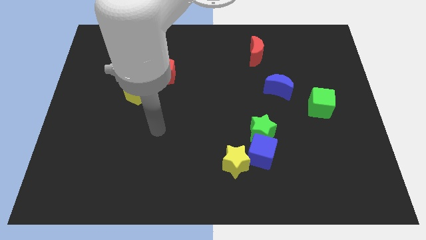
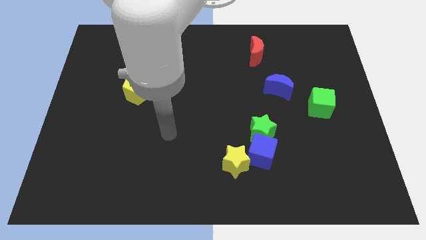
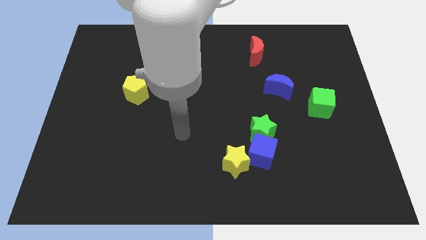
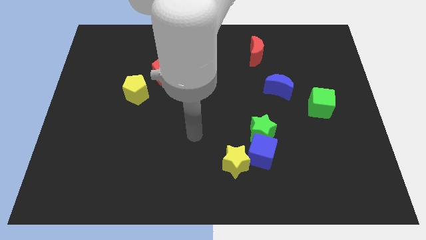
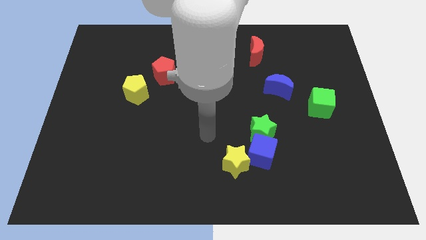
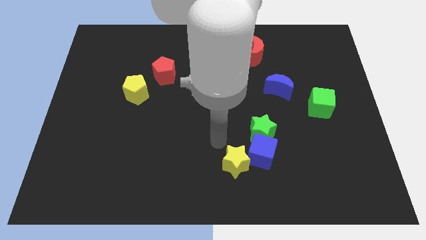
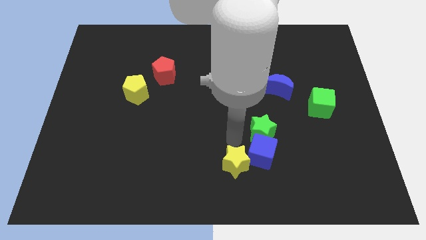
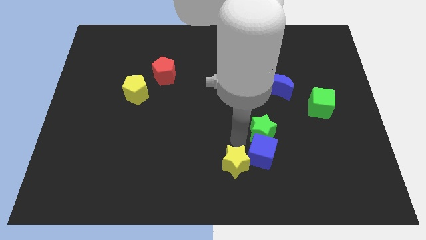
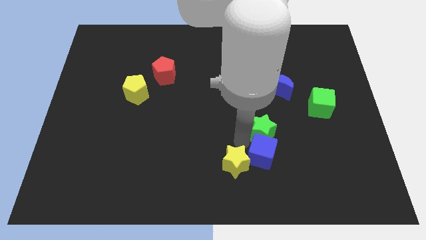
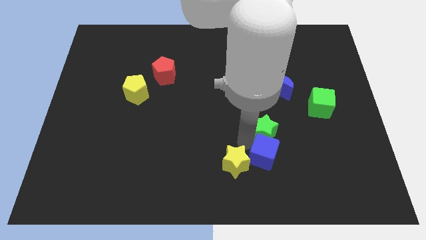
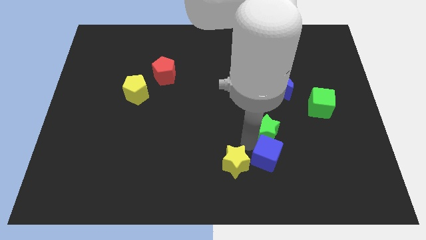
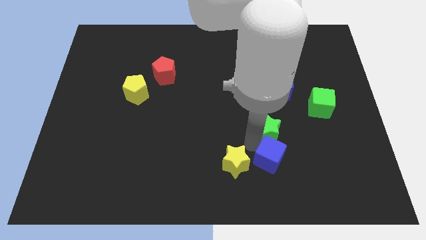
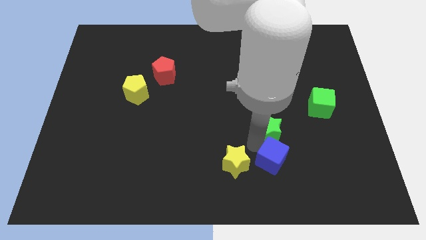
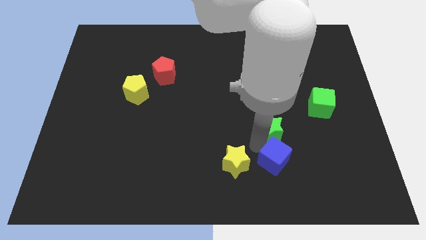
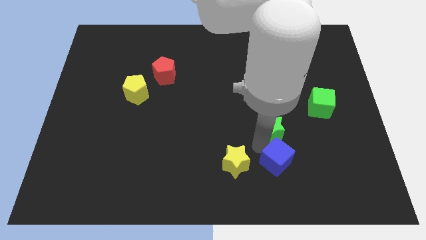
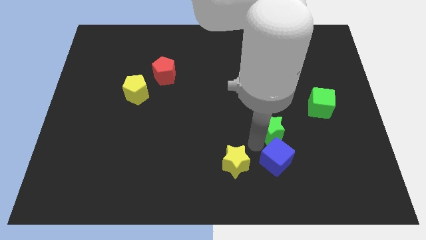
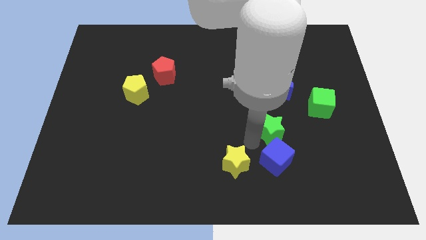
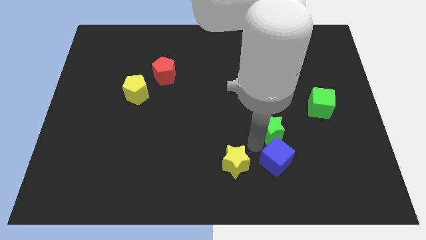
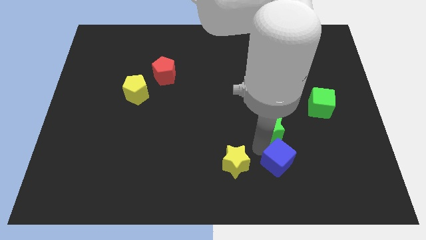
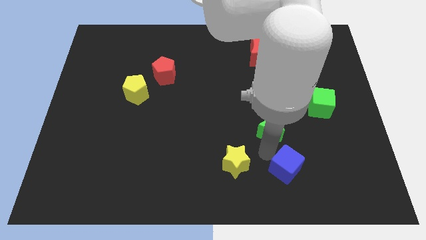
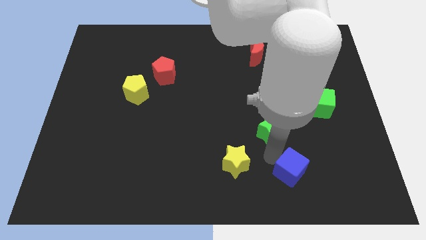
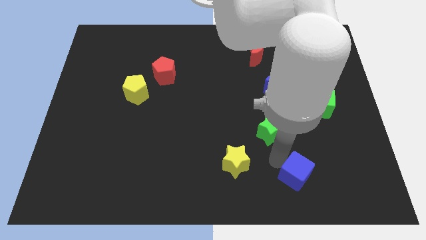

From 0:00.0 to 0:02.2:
pull the blue cube apart from the green star and yellow star

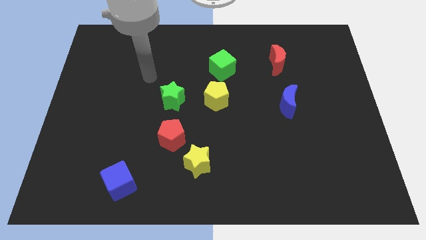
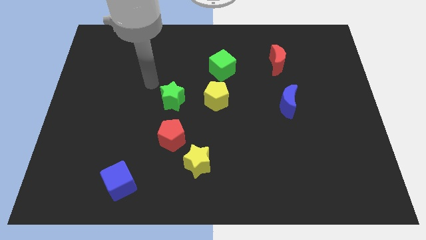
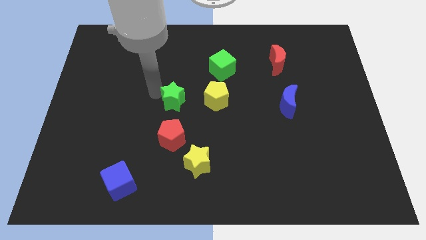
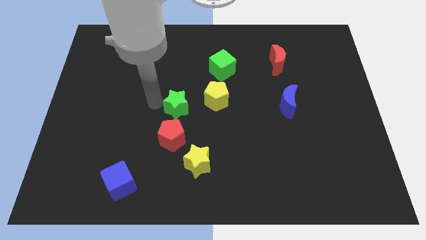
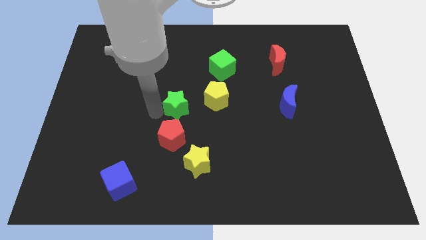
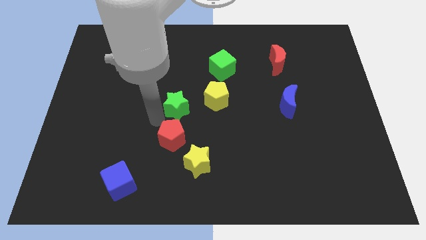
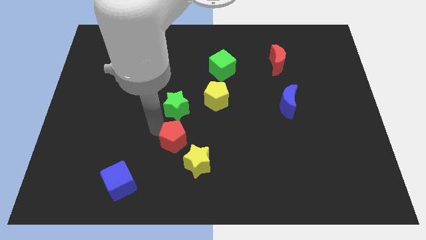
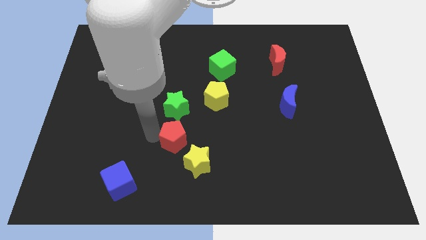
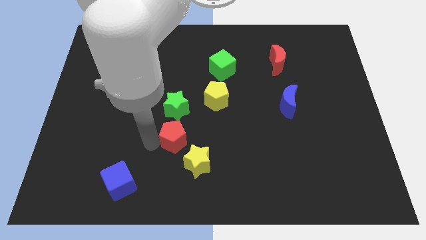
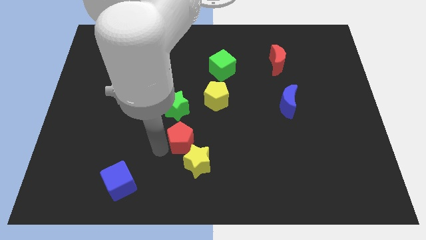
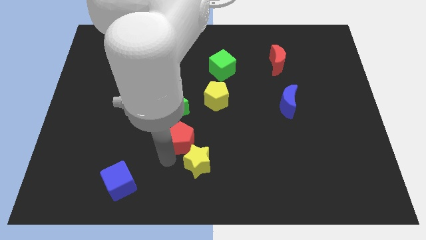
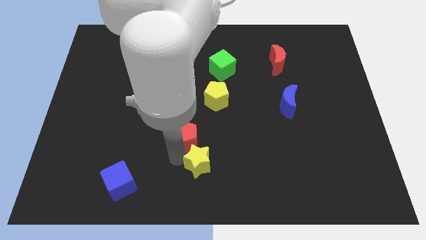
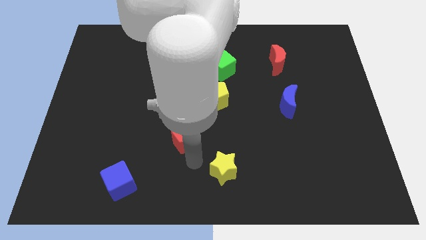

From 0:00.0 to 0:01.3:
separate the red pentagon from the yellow star

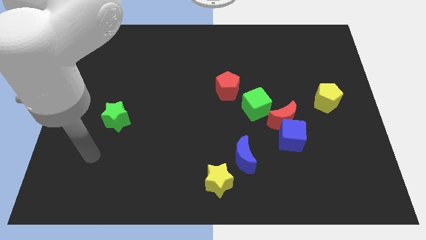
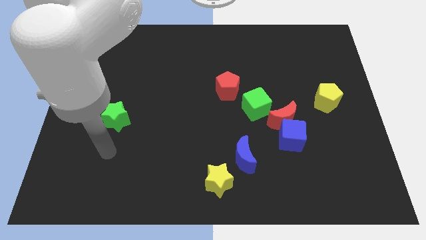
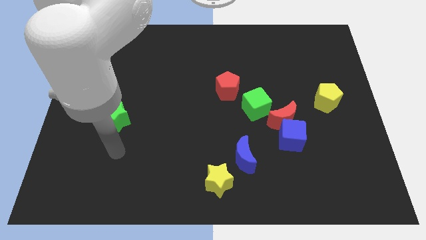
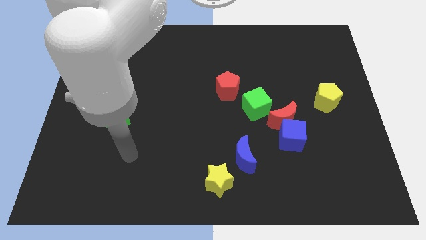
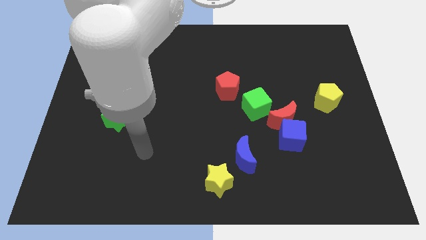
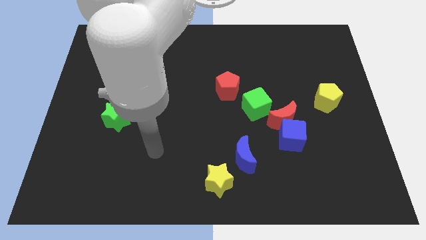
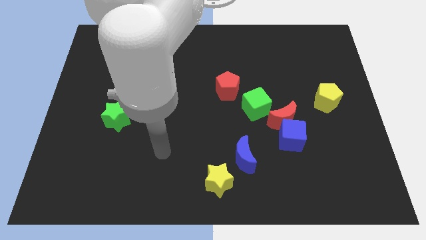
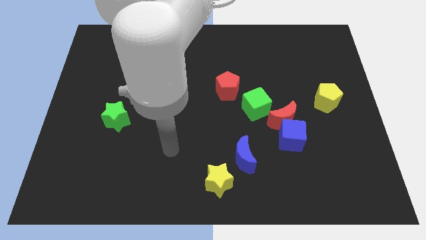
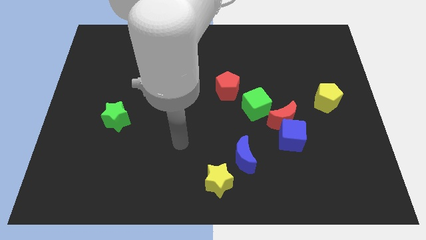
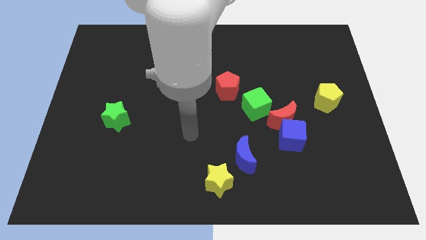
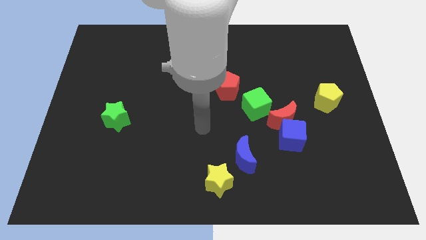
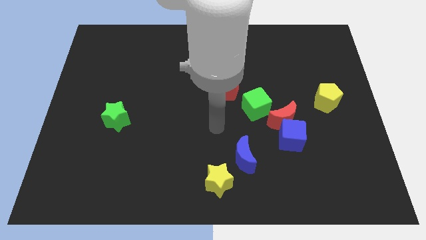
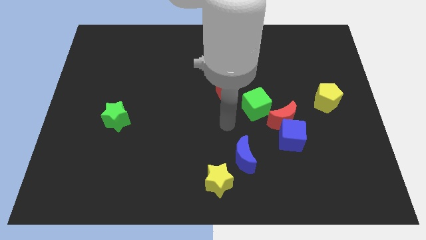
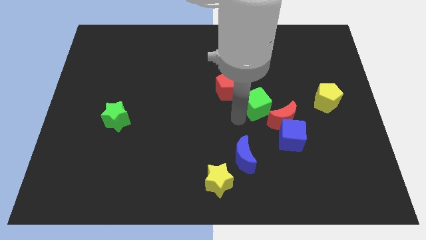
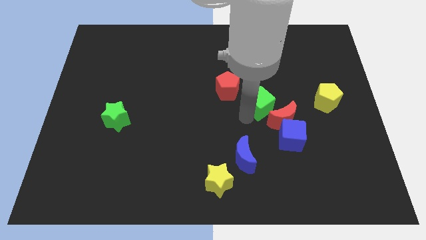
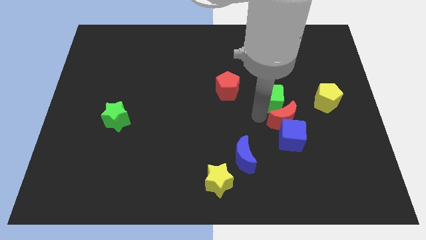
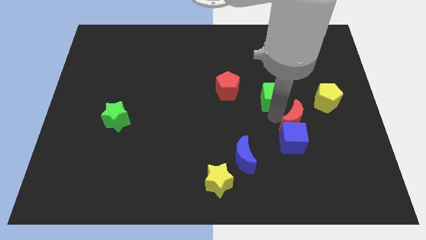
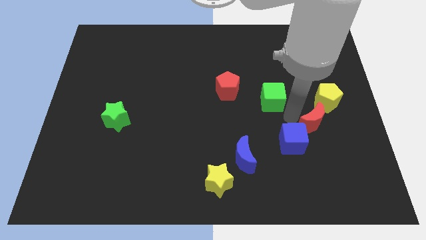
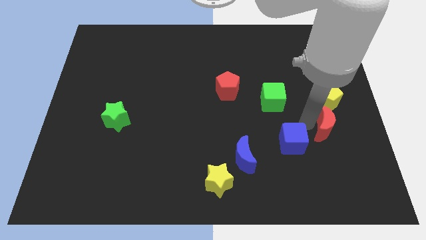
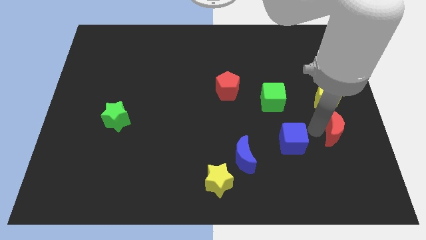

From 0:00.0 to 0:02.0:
separate the blue cube from the red moon

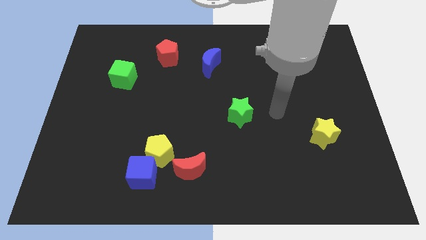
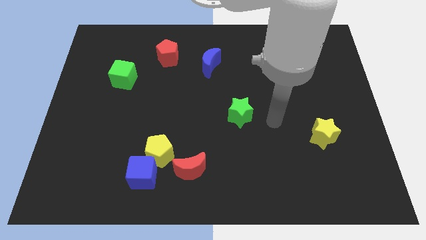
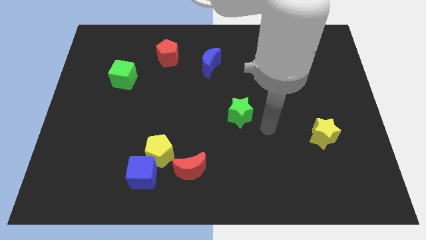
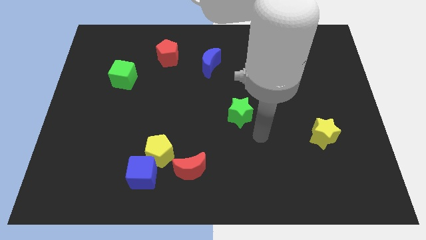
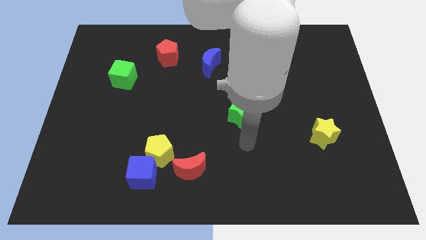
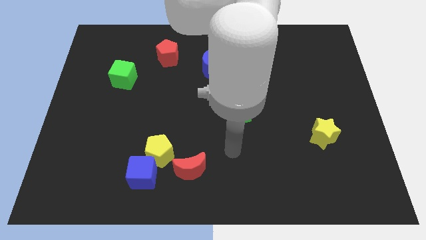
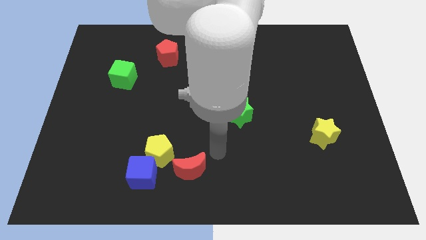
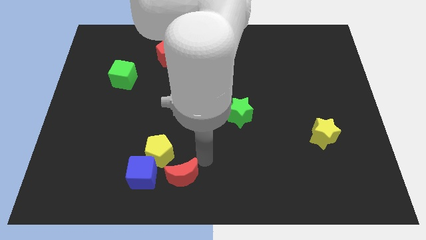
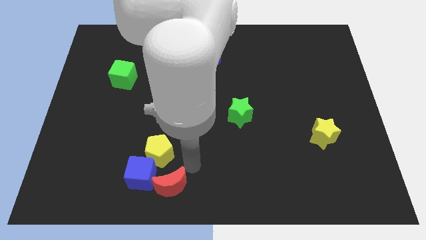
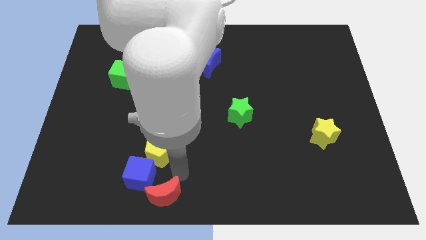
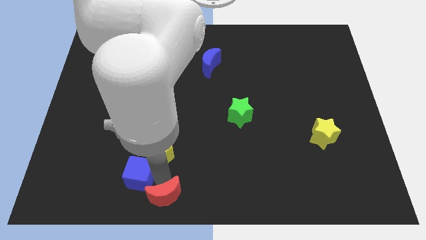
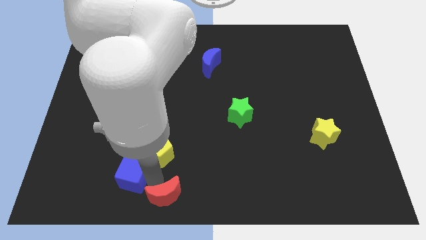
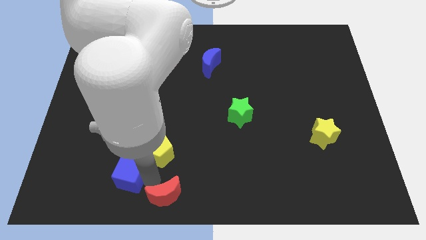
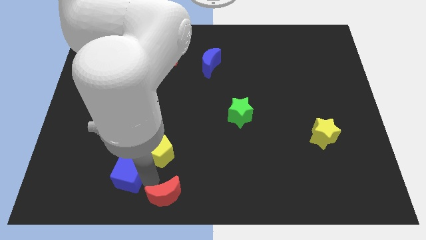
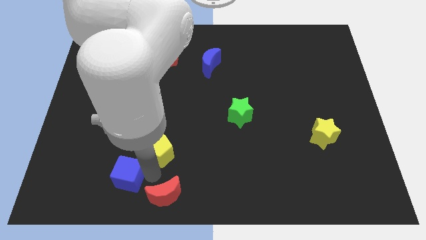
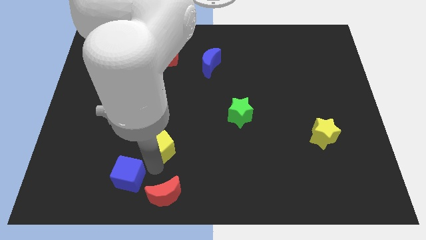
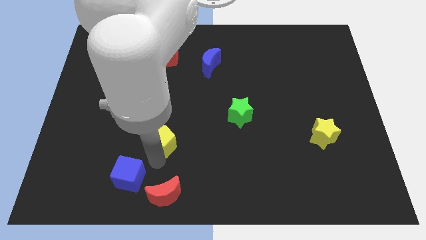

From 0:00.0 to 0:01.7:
separate the yellow pentagon from the blue cube and red moon

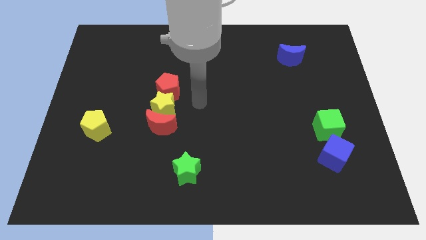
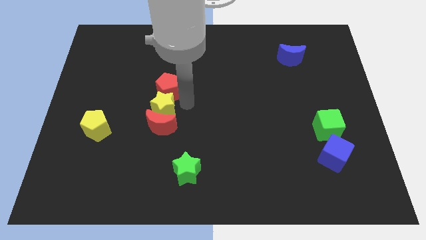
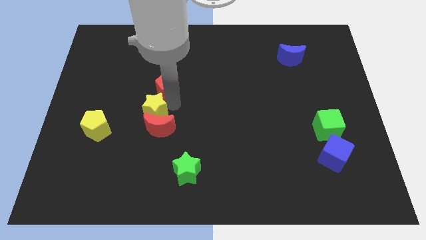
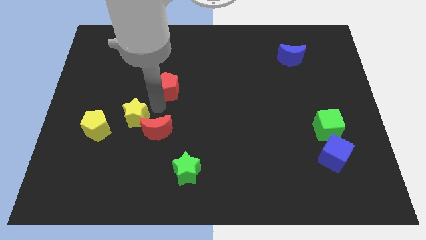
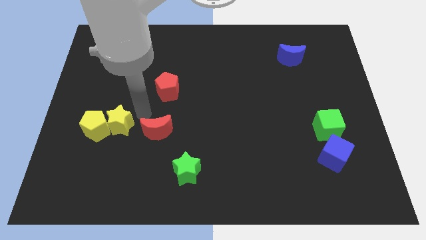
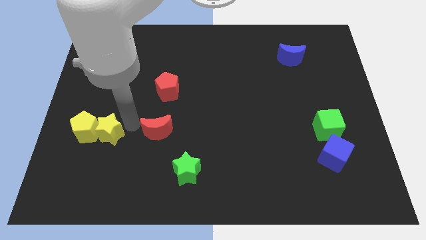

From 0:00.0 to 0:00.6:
move the red moon away from the yellow star

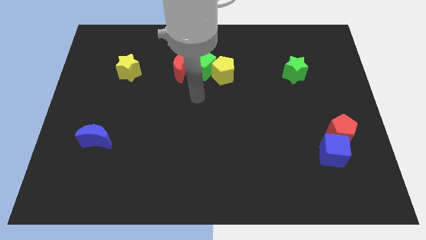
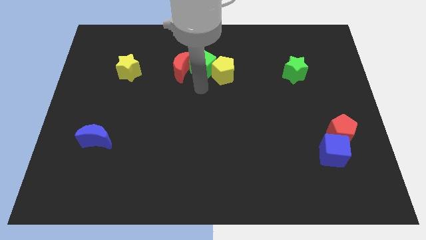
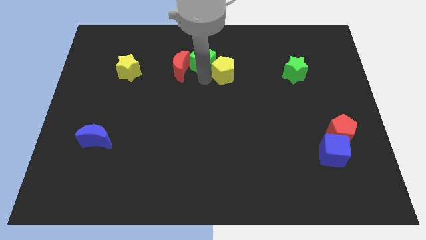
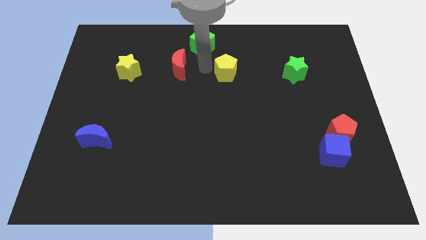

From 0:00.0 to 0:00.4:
move the red moon away from the green cube

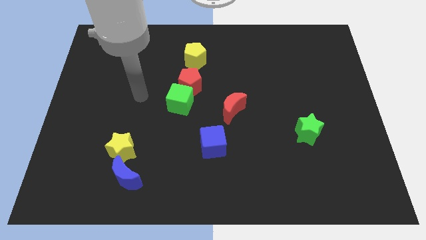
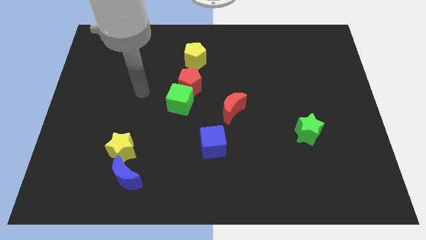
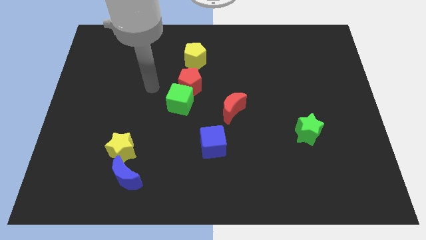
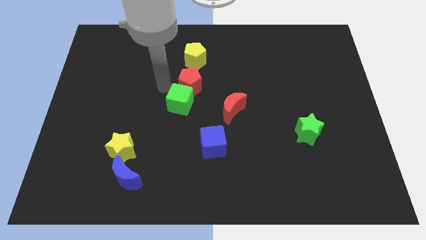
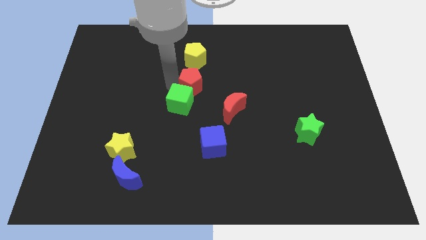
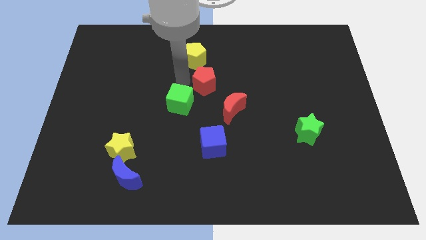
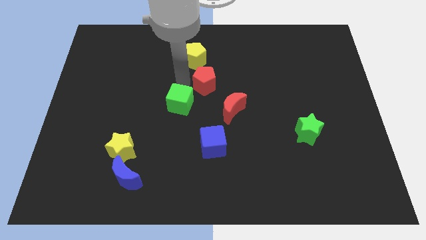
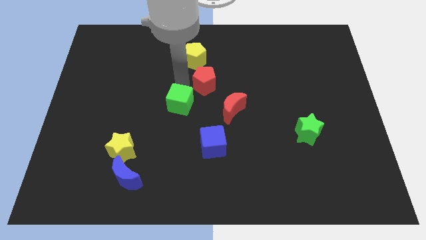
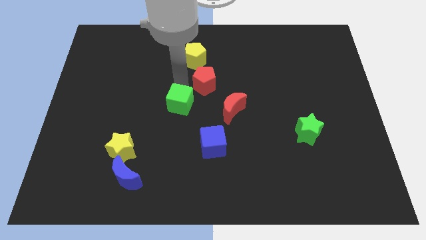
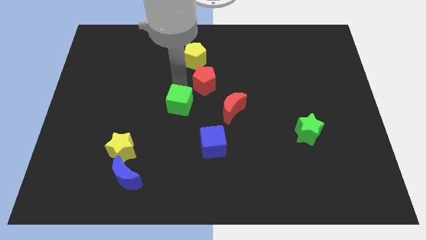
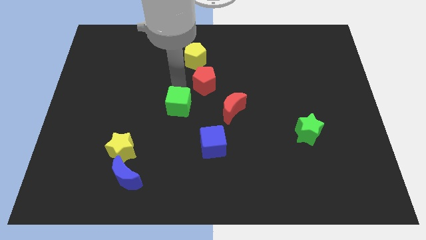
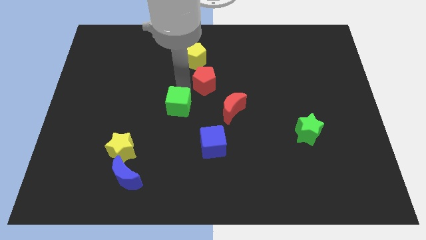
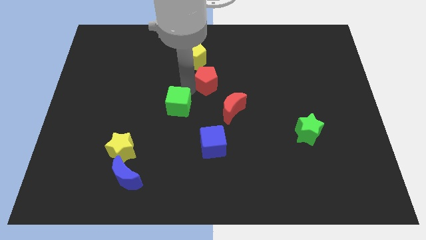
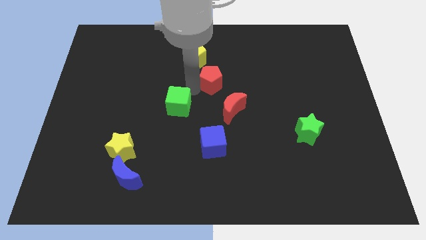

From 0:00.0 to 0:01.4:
move the green cube away from the red pentagon
